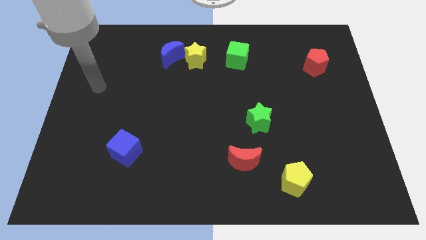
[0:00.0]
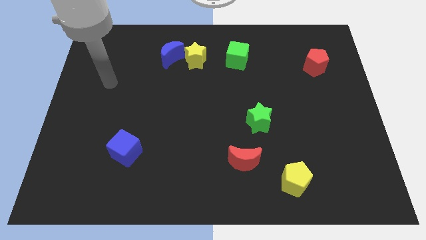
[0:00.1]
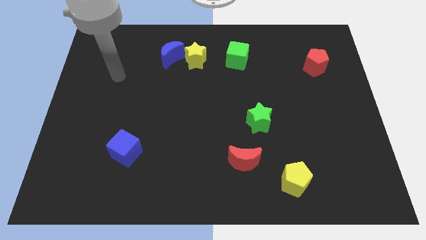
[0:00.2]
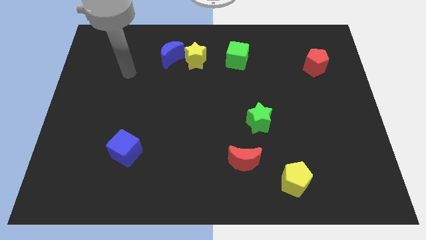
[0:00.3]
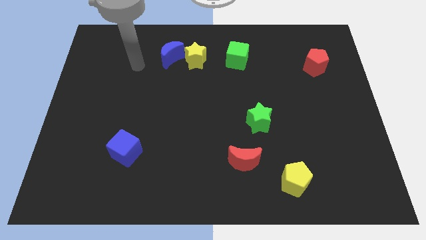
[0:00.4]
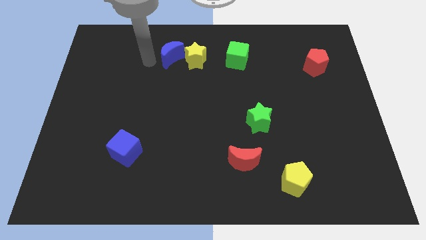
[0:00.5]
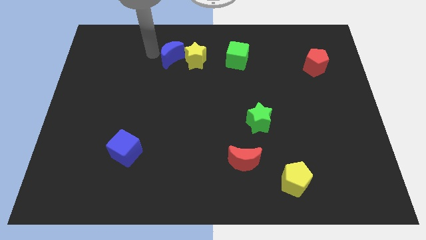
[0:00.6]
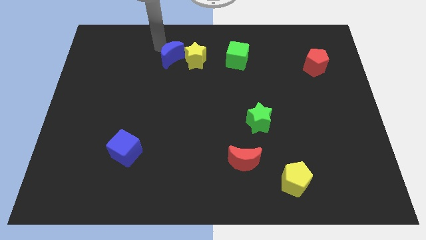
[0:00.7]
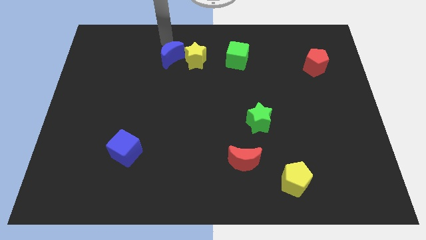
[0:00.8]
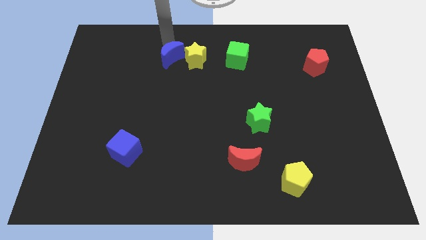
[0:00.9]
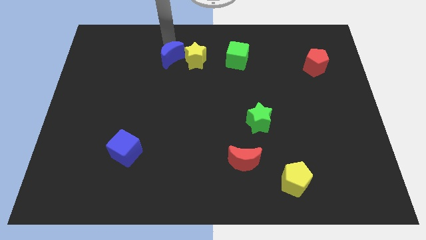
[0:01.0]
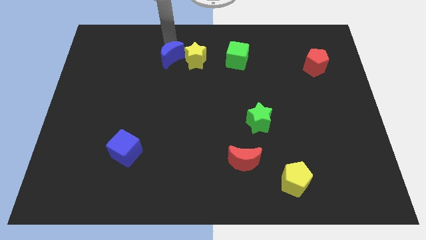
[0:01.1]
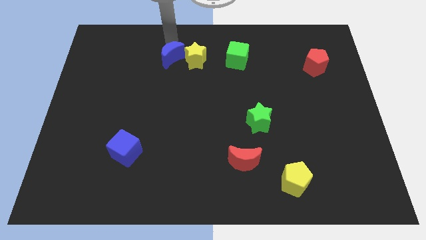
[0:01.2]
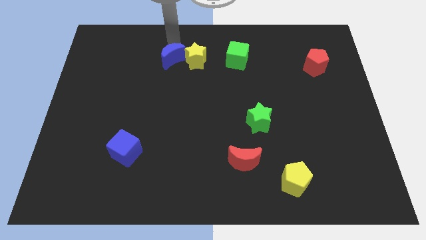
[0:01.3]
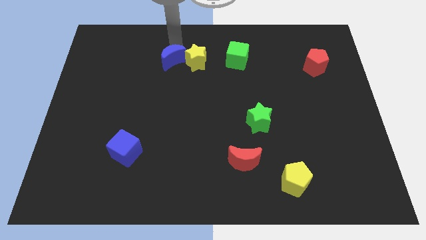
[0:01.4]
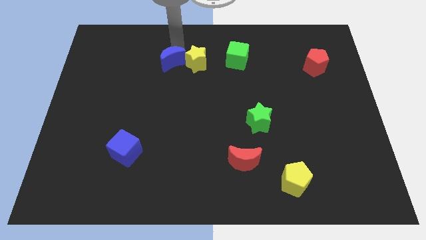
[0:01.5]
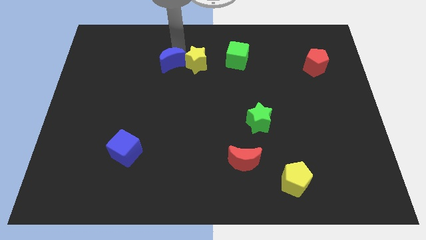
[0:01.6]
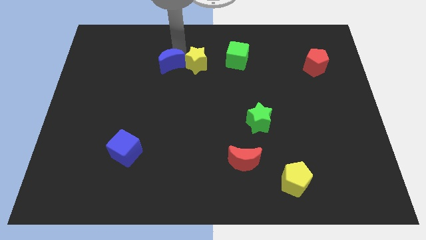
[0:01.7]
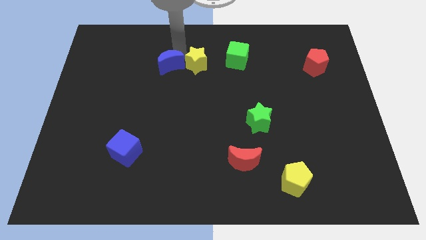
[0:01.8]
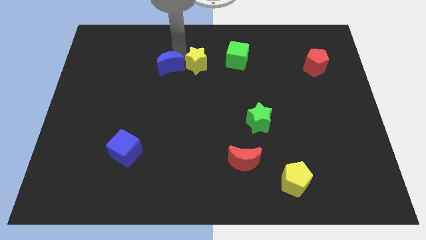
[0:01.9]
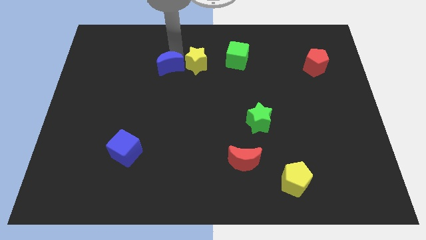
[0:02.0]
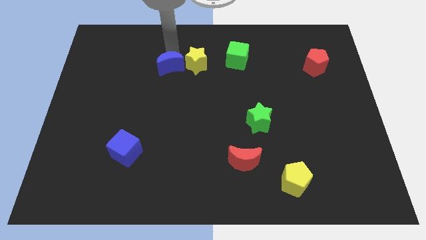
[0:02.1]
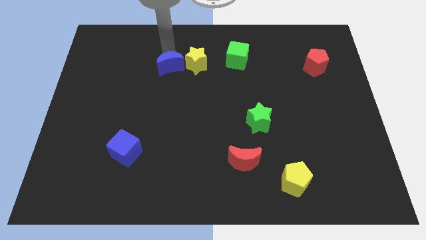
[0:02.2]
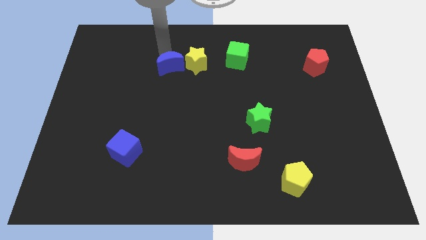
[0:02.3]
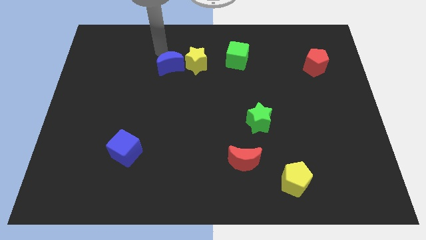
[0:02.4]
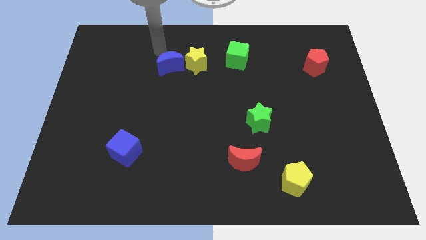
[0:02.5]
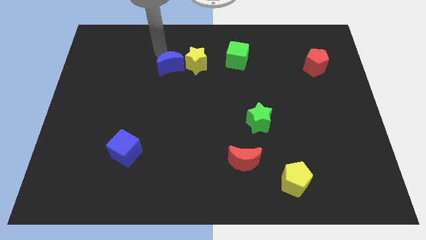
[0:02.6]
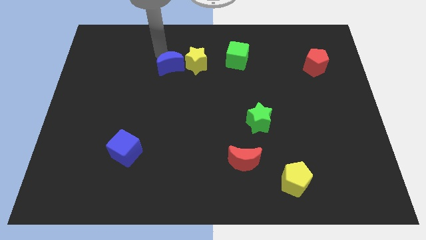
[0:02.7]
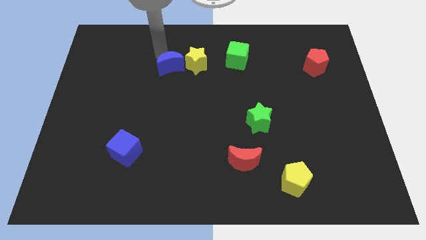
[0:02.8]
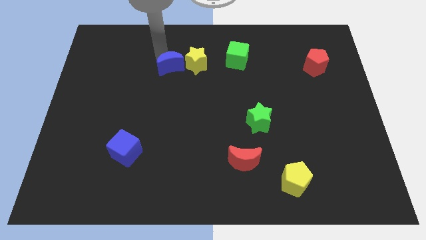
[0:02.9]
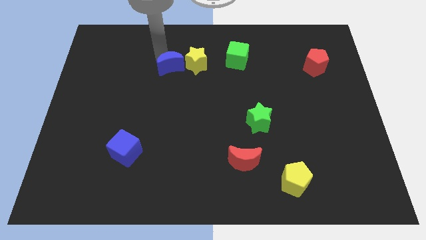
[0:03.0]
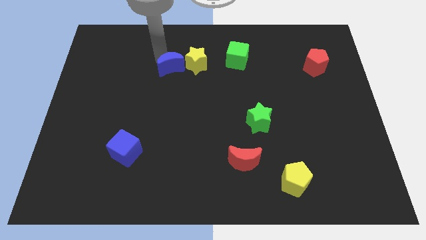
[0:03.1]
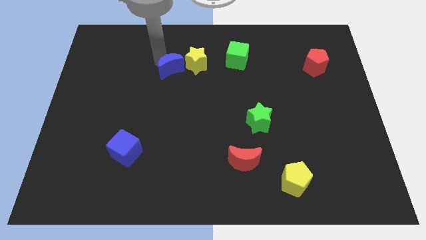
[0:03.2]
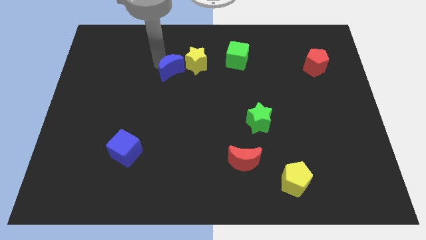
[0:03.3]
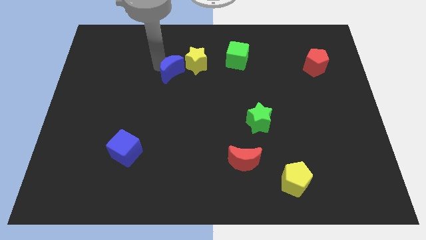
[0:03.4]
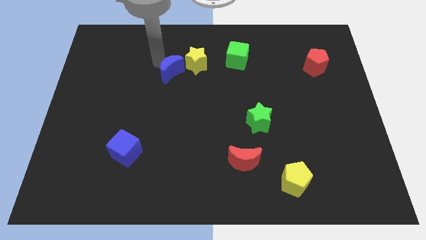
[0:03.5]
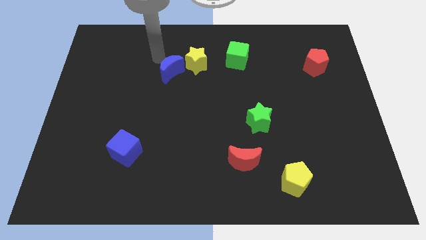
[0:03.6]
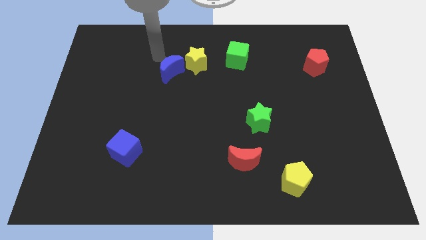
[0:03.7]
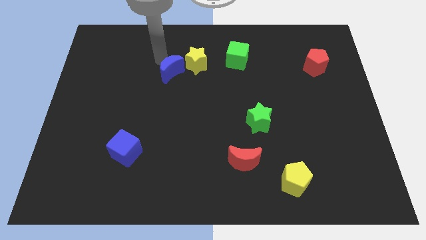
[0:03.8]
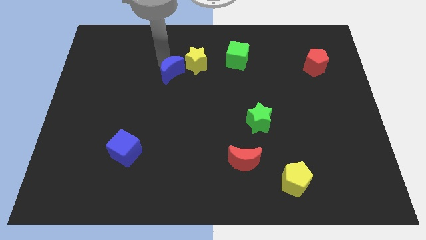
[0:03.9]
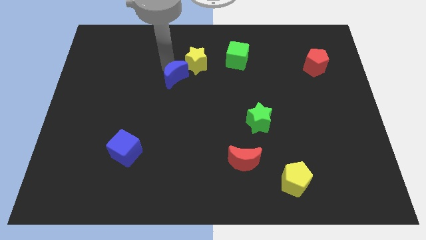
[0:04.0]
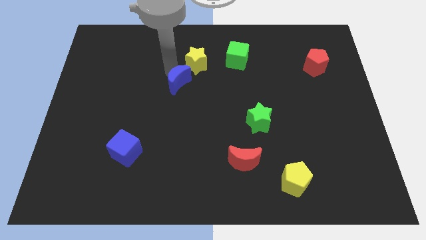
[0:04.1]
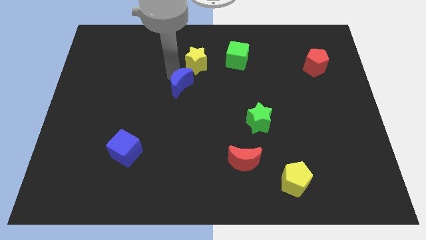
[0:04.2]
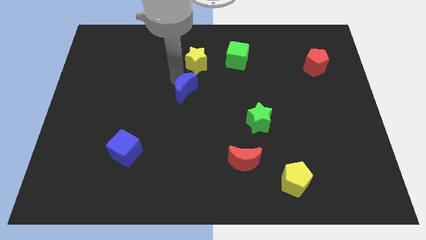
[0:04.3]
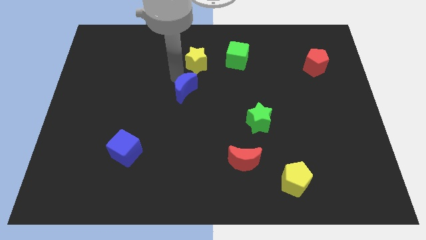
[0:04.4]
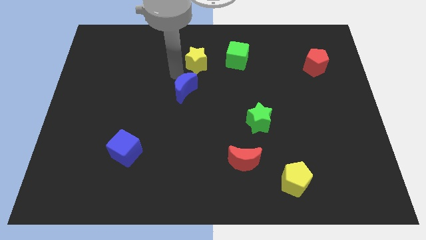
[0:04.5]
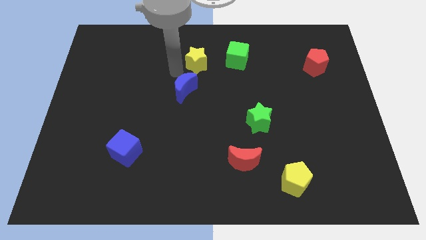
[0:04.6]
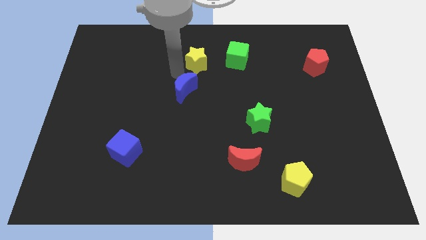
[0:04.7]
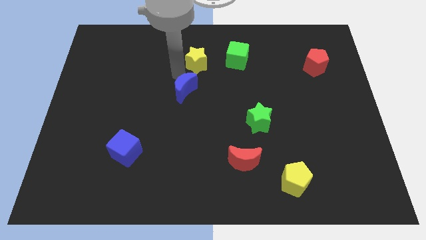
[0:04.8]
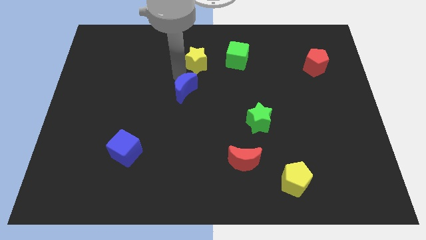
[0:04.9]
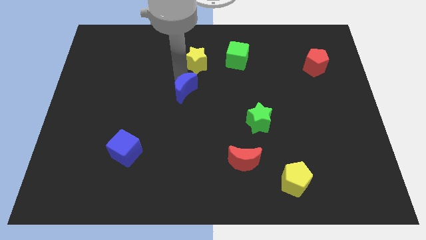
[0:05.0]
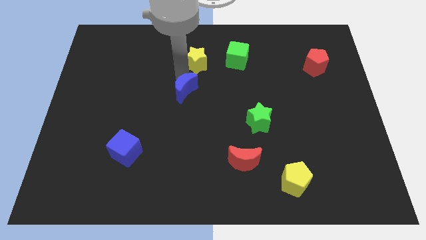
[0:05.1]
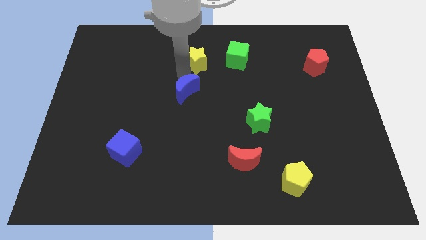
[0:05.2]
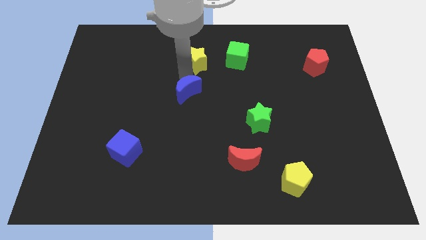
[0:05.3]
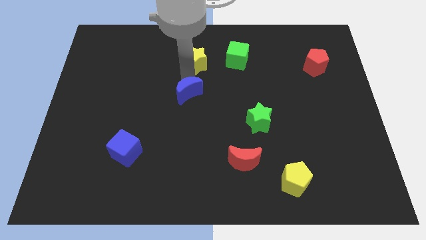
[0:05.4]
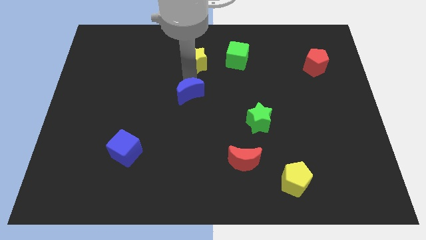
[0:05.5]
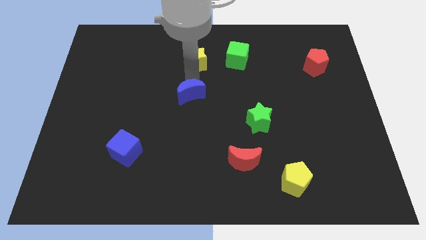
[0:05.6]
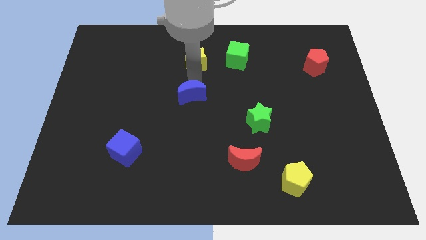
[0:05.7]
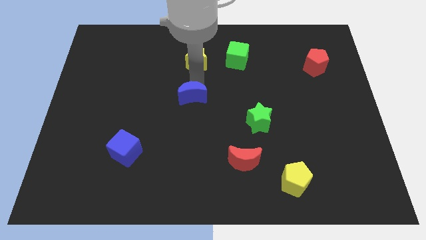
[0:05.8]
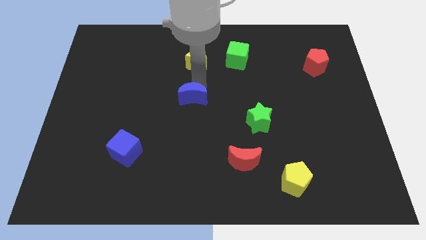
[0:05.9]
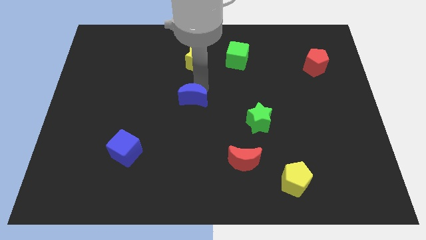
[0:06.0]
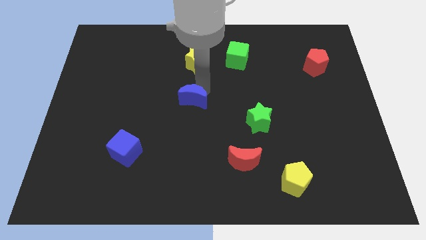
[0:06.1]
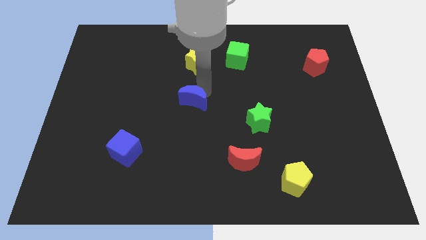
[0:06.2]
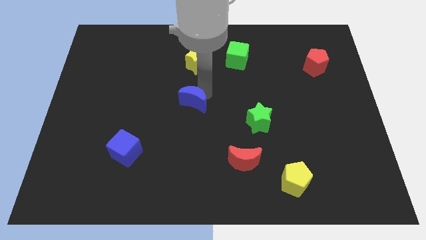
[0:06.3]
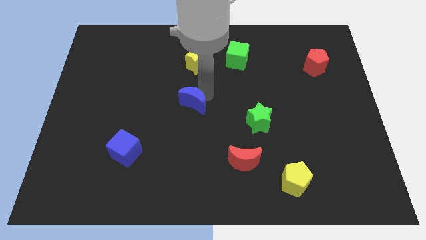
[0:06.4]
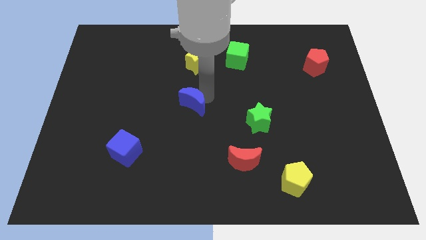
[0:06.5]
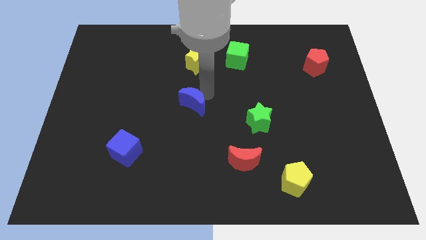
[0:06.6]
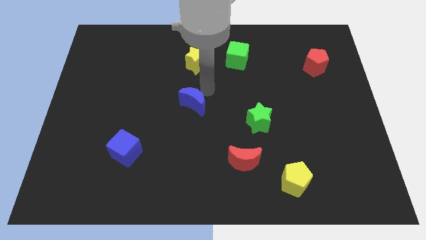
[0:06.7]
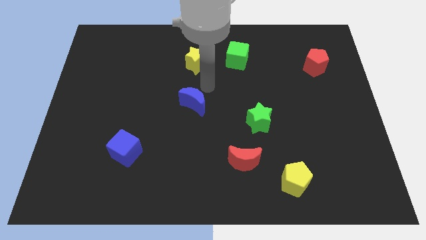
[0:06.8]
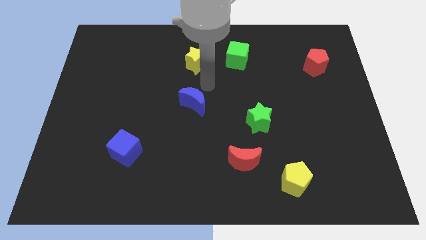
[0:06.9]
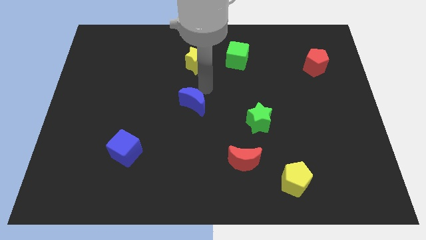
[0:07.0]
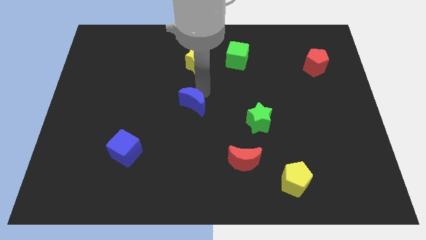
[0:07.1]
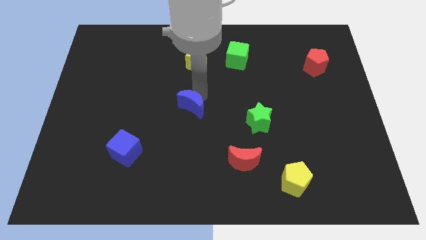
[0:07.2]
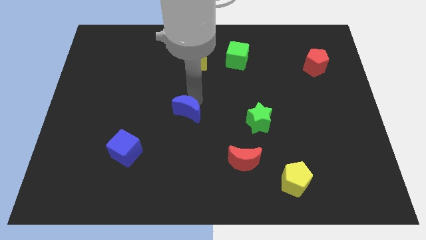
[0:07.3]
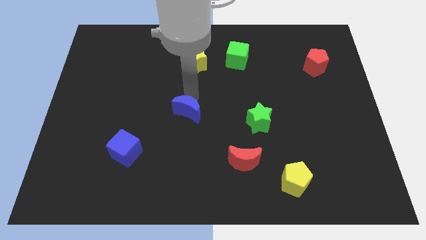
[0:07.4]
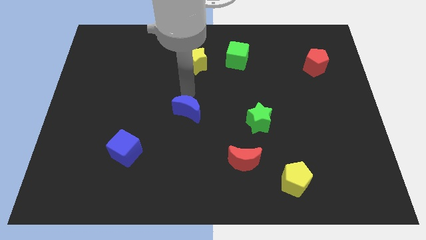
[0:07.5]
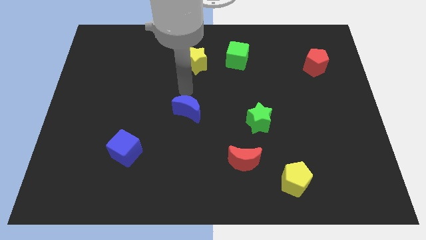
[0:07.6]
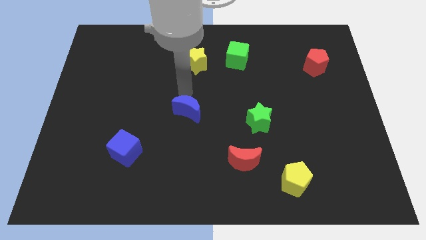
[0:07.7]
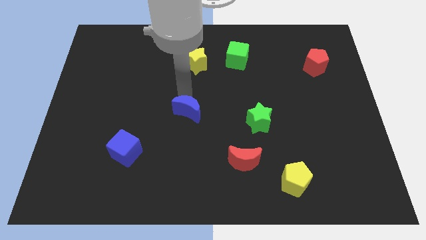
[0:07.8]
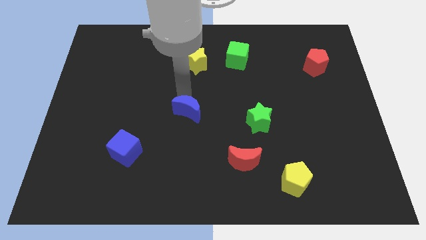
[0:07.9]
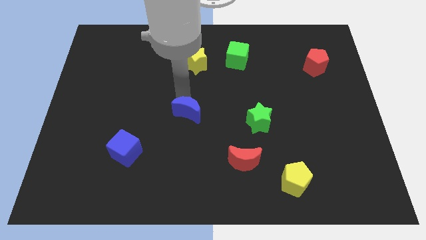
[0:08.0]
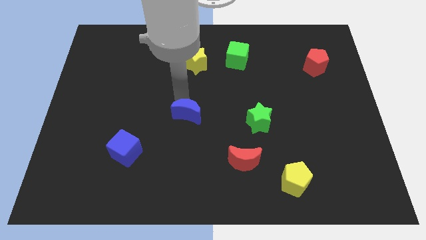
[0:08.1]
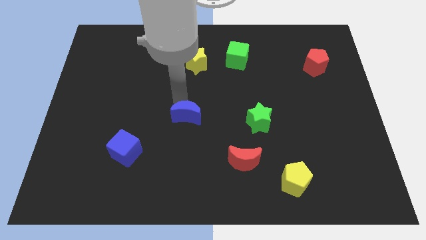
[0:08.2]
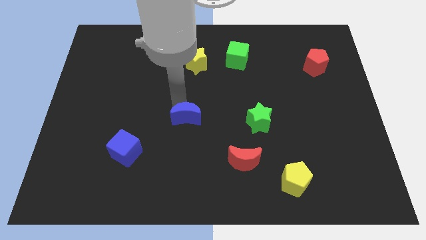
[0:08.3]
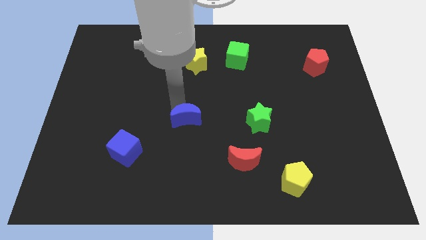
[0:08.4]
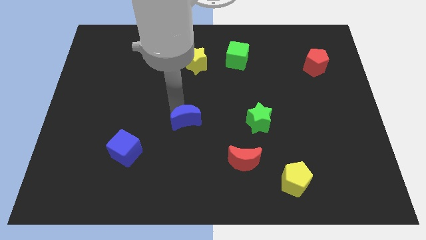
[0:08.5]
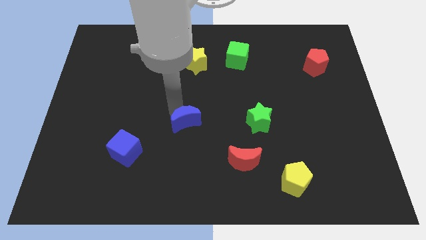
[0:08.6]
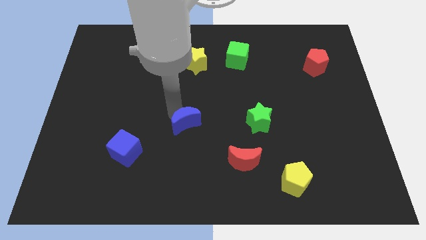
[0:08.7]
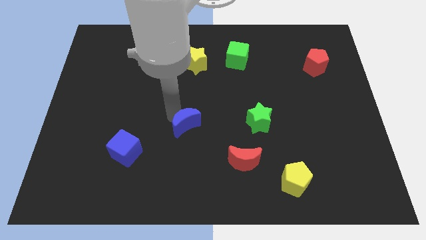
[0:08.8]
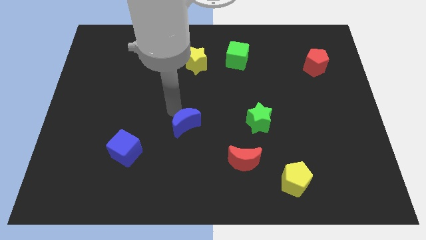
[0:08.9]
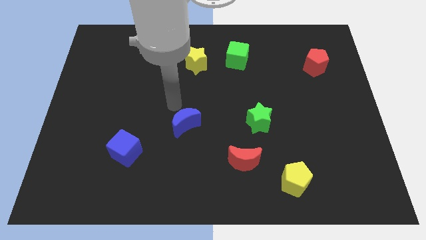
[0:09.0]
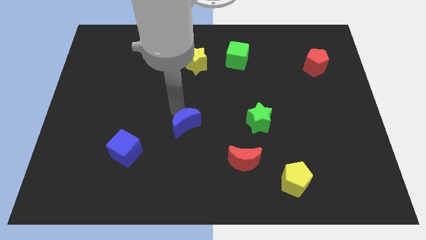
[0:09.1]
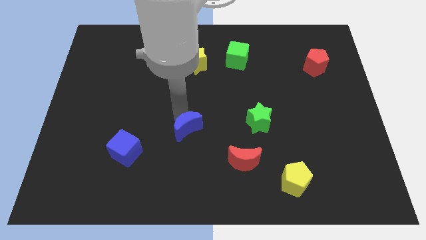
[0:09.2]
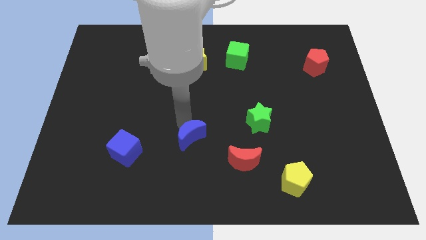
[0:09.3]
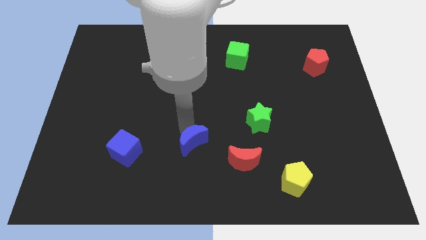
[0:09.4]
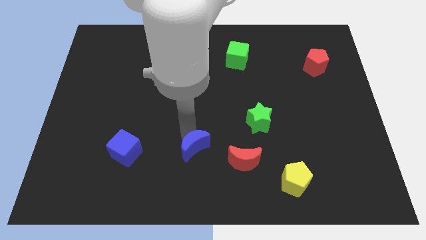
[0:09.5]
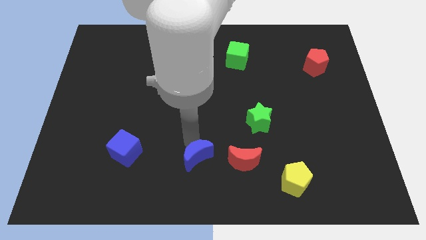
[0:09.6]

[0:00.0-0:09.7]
slide the blue moon to the bottom side
